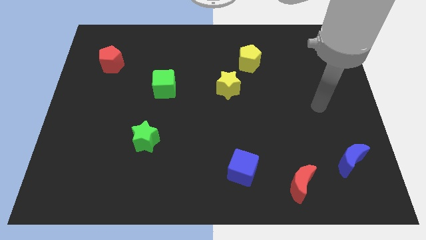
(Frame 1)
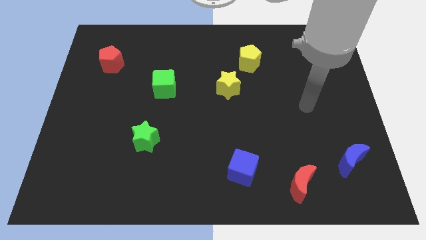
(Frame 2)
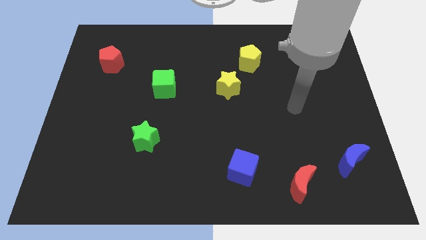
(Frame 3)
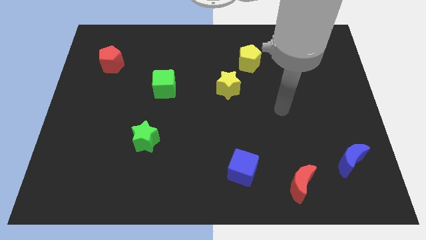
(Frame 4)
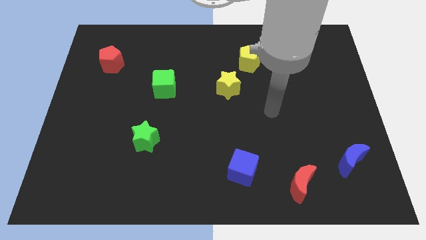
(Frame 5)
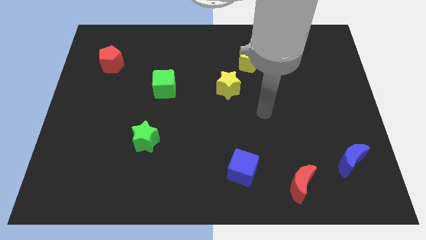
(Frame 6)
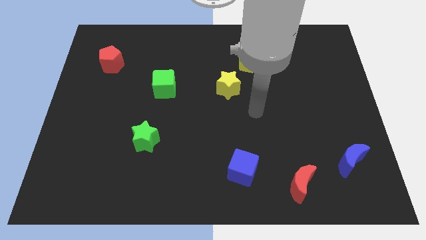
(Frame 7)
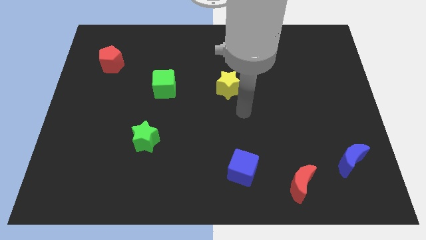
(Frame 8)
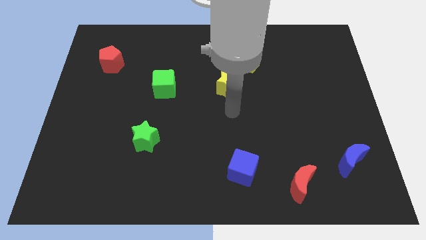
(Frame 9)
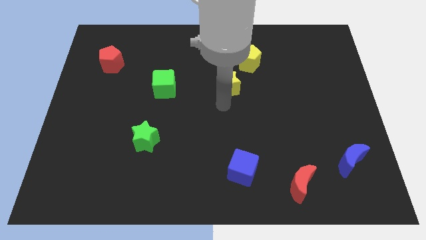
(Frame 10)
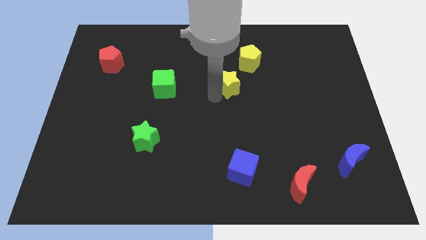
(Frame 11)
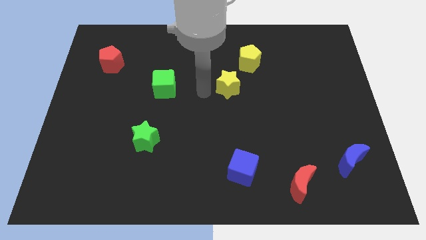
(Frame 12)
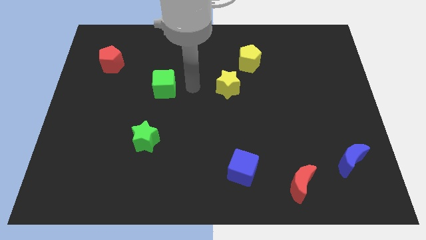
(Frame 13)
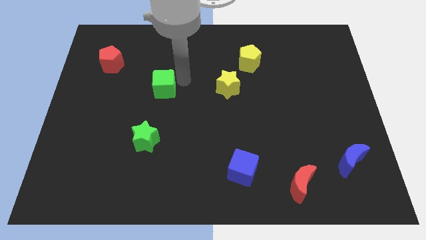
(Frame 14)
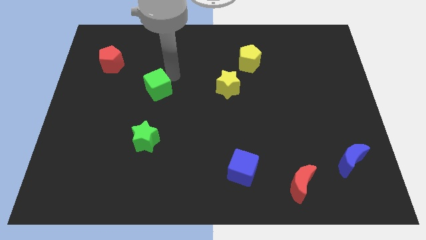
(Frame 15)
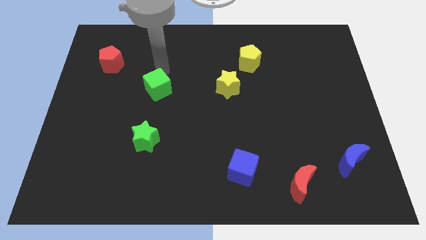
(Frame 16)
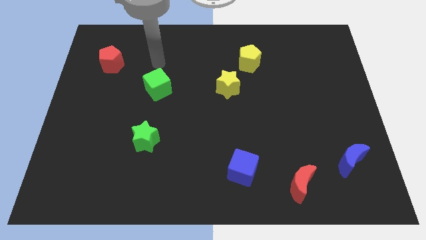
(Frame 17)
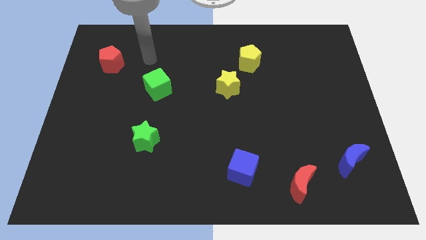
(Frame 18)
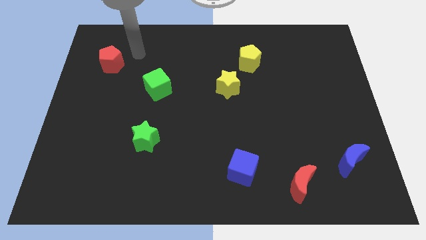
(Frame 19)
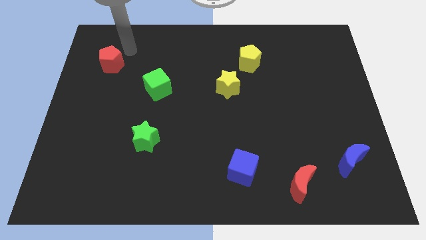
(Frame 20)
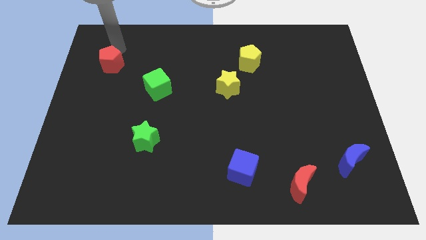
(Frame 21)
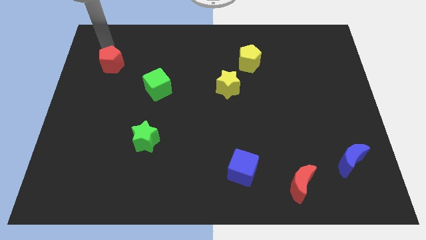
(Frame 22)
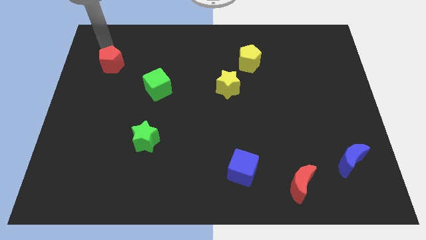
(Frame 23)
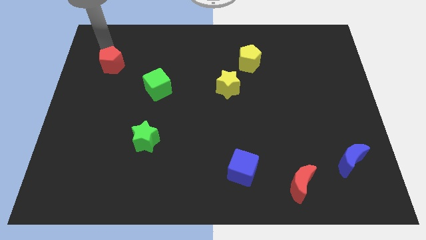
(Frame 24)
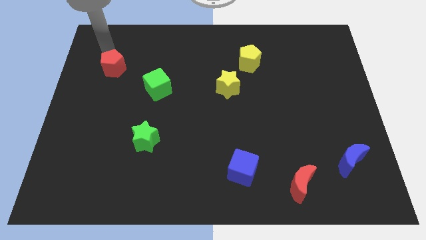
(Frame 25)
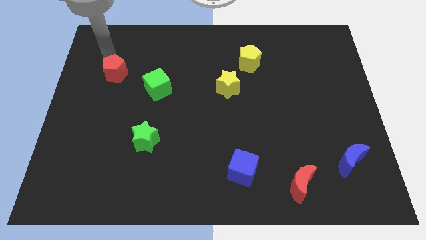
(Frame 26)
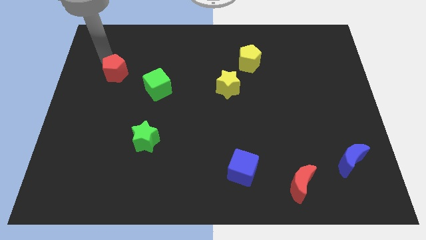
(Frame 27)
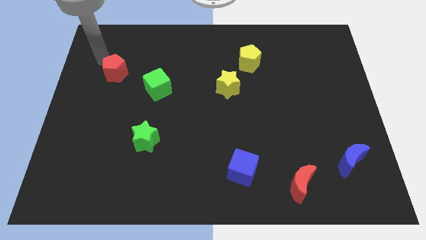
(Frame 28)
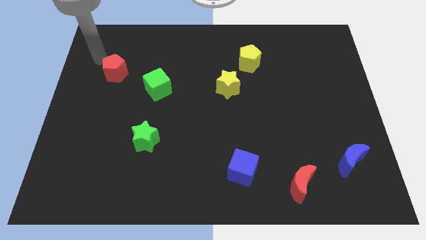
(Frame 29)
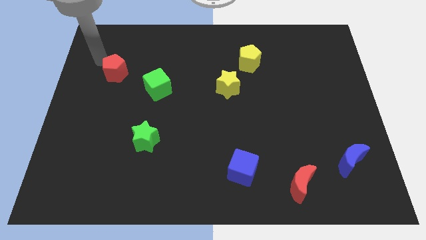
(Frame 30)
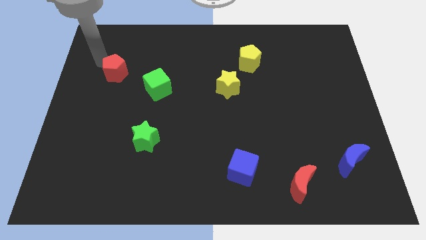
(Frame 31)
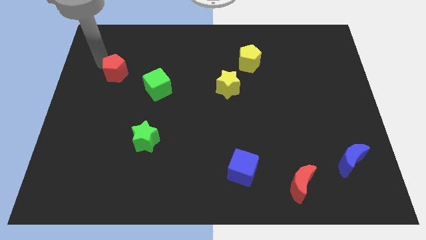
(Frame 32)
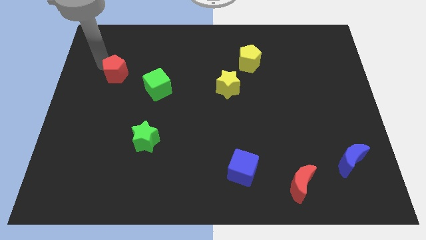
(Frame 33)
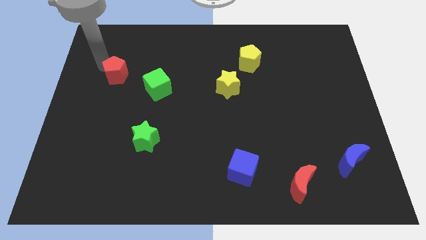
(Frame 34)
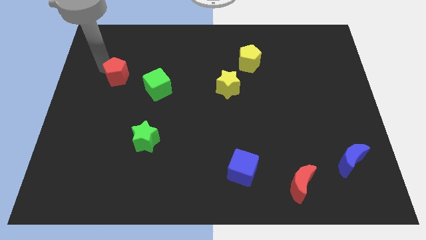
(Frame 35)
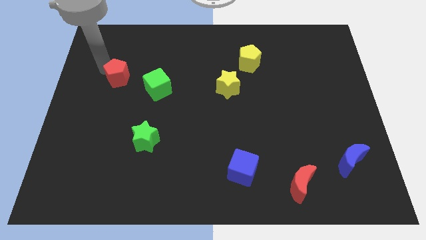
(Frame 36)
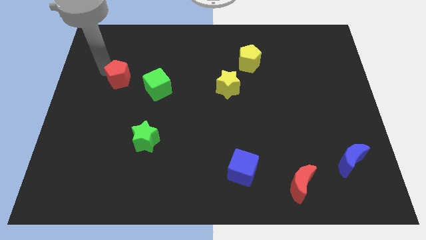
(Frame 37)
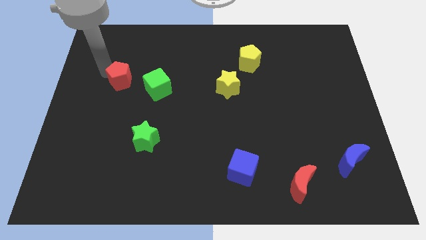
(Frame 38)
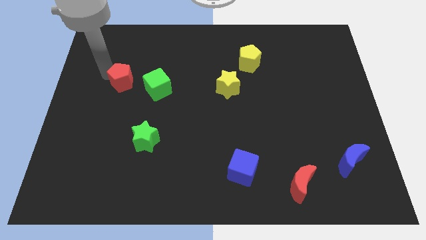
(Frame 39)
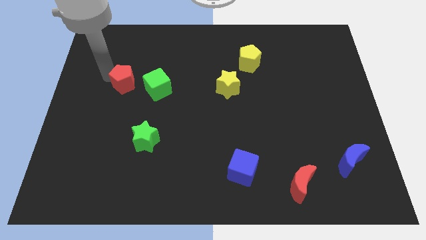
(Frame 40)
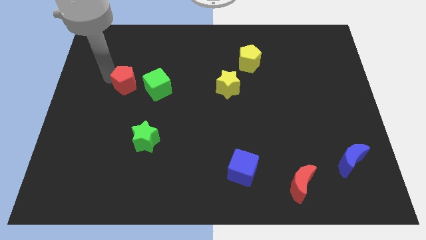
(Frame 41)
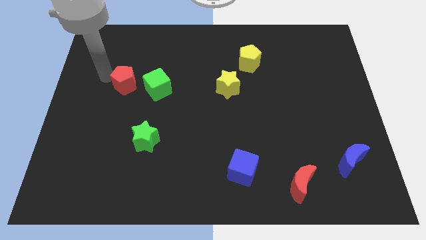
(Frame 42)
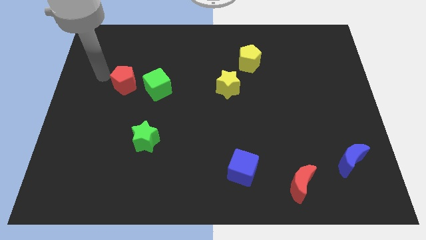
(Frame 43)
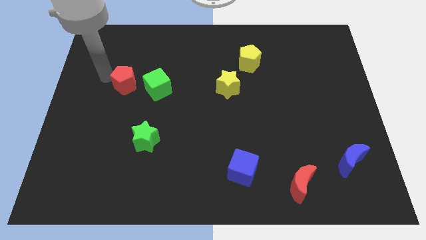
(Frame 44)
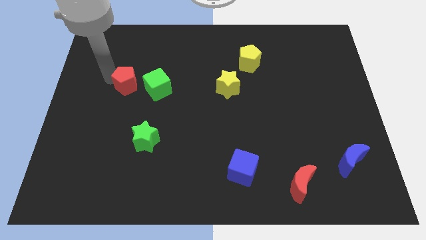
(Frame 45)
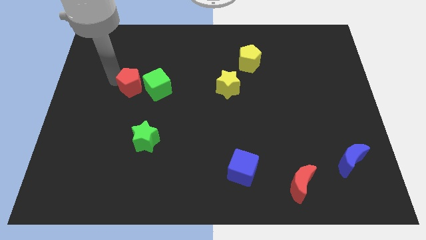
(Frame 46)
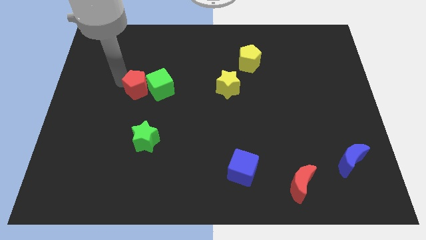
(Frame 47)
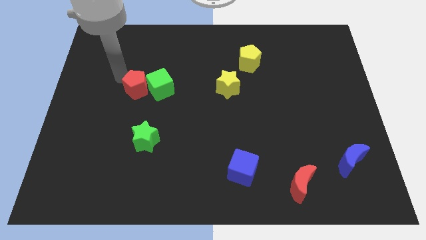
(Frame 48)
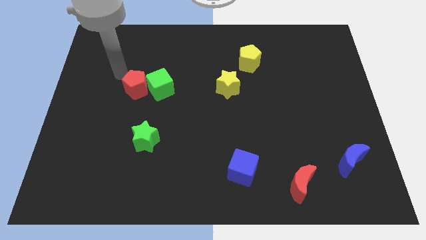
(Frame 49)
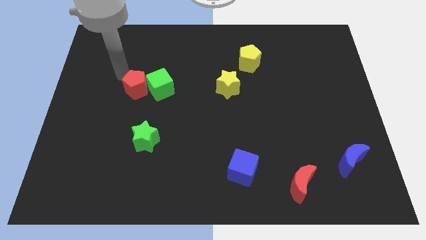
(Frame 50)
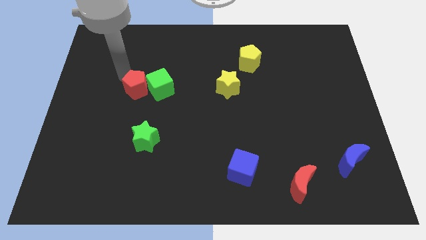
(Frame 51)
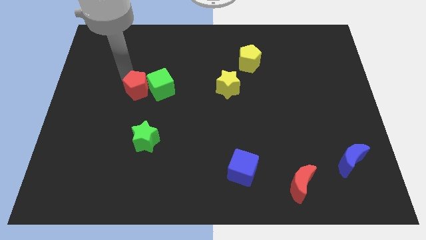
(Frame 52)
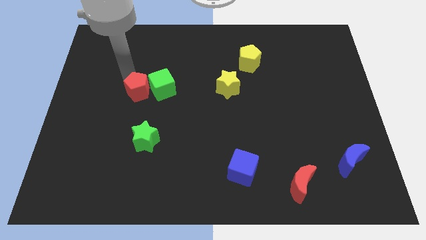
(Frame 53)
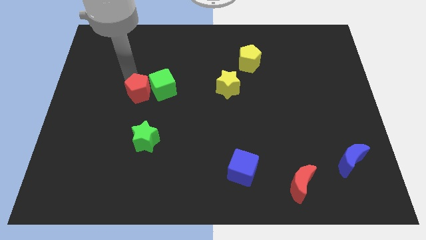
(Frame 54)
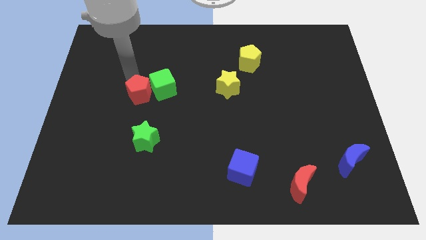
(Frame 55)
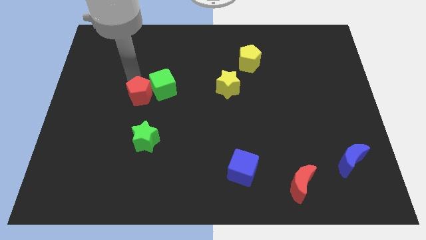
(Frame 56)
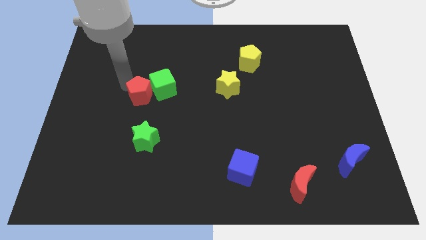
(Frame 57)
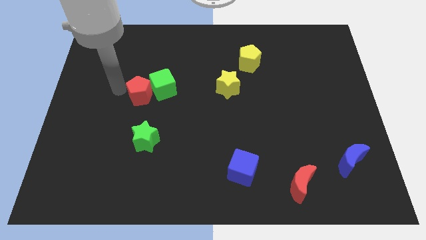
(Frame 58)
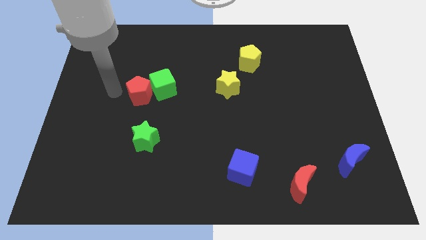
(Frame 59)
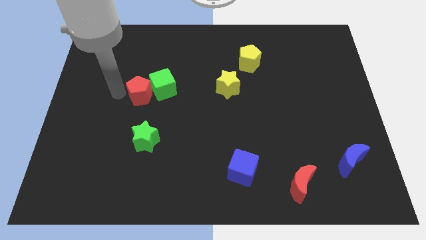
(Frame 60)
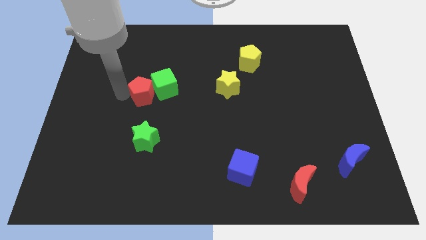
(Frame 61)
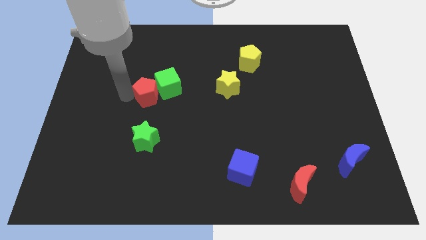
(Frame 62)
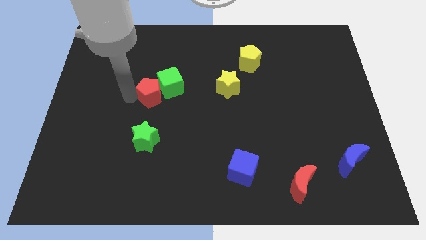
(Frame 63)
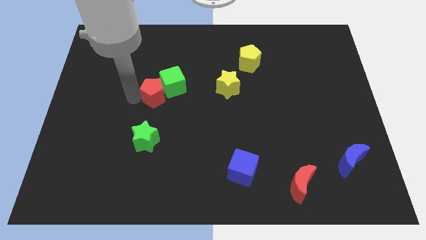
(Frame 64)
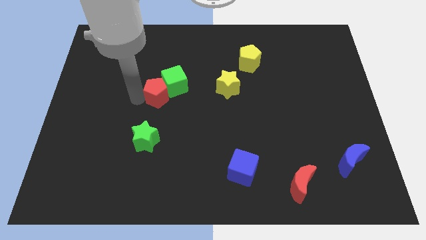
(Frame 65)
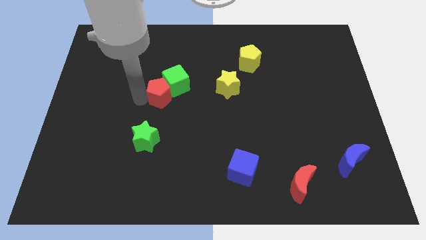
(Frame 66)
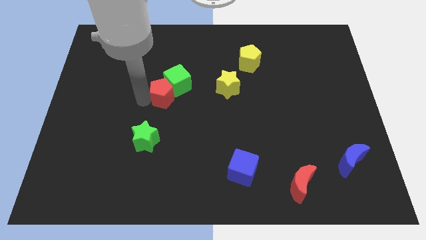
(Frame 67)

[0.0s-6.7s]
put the red pentagon to the center
